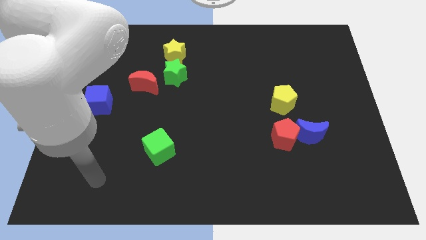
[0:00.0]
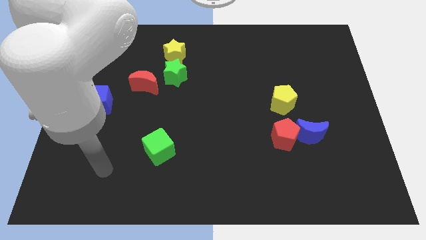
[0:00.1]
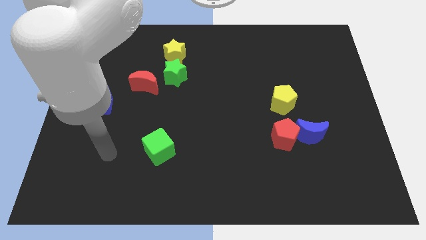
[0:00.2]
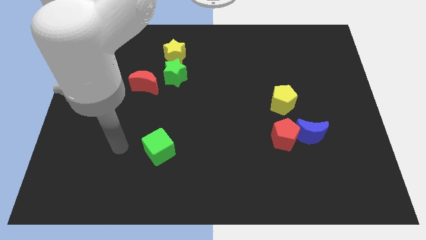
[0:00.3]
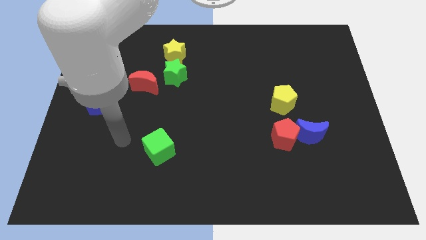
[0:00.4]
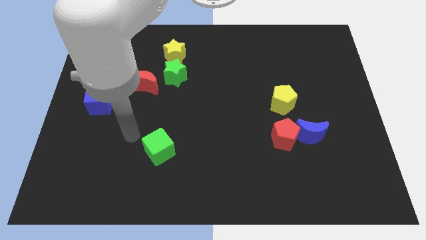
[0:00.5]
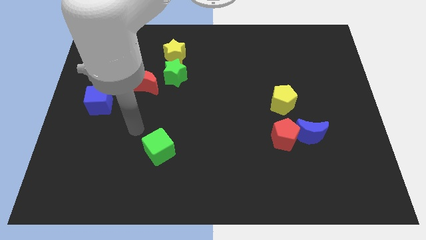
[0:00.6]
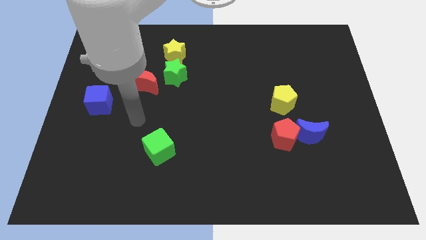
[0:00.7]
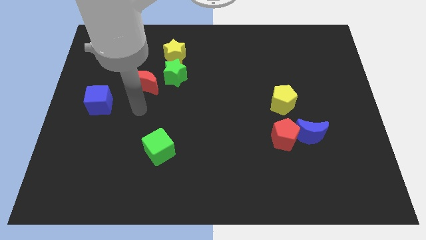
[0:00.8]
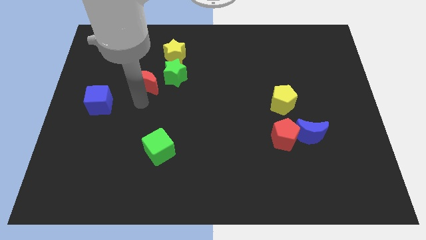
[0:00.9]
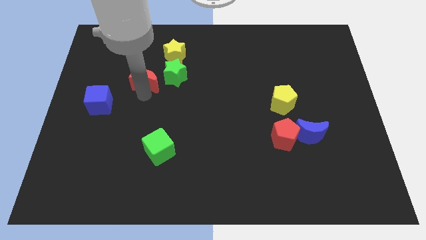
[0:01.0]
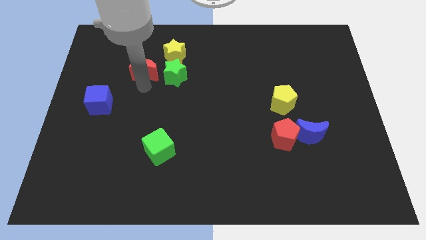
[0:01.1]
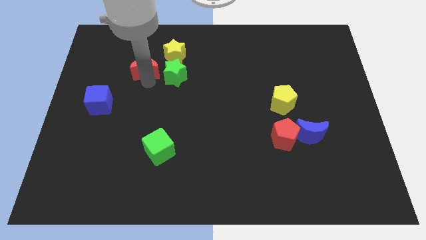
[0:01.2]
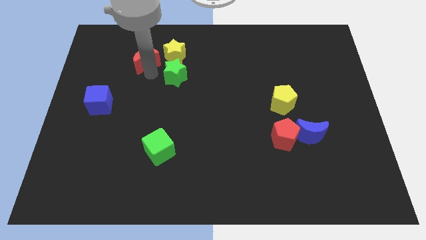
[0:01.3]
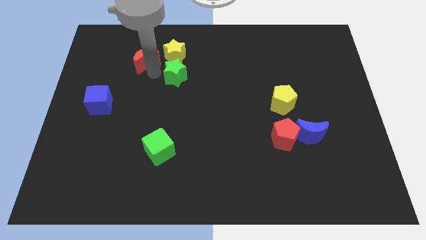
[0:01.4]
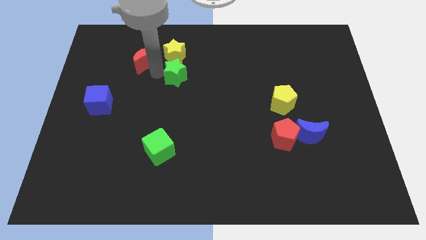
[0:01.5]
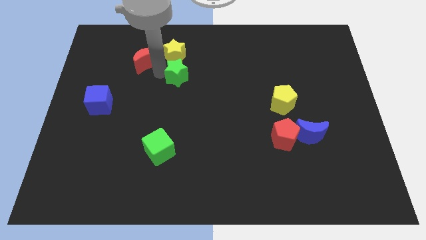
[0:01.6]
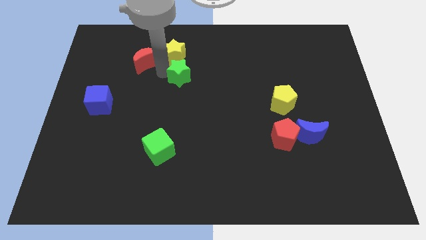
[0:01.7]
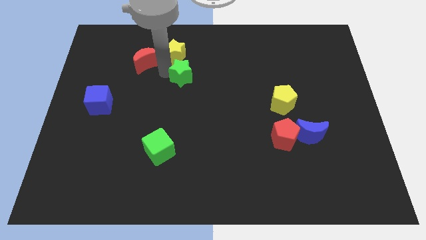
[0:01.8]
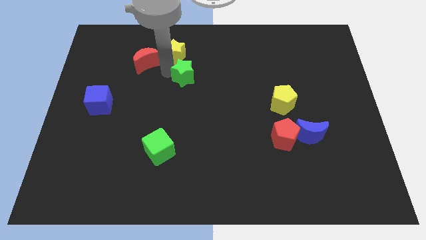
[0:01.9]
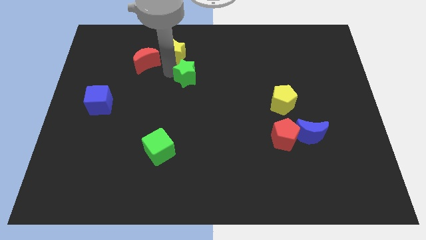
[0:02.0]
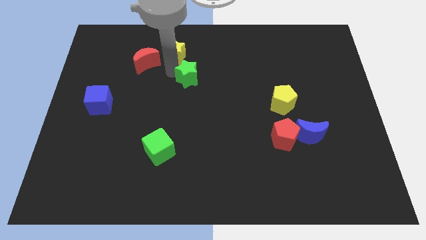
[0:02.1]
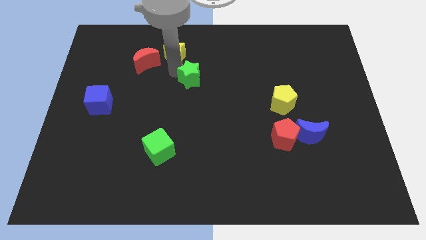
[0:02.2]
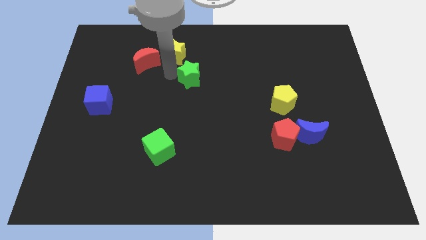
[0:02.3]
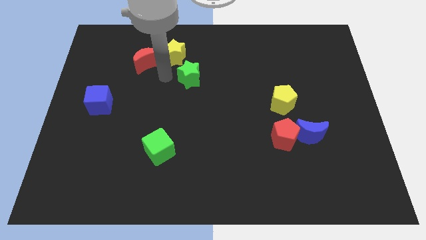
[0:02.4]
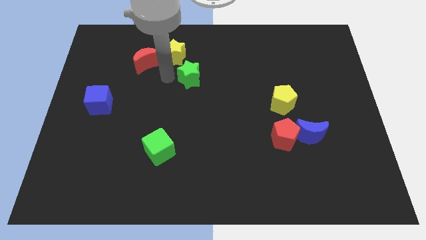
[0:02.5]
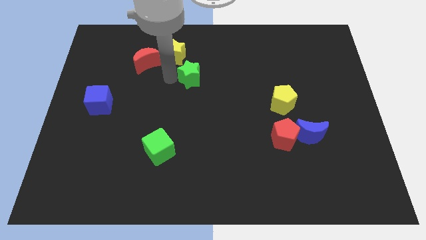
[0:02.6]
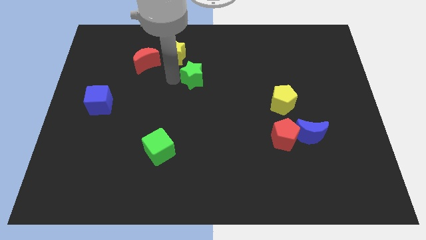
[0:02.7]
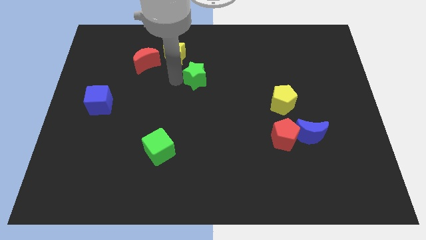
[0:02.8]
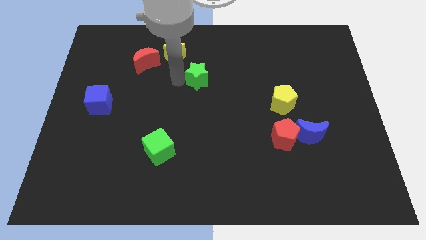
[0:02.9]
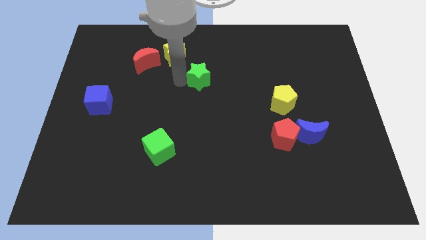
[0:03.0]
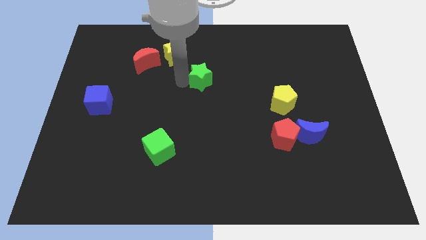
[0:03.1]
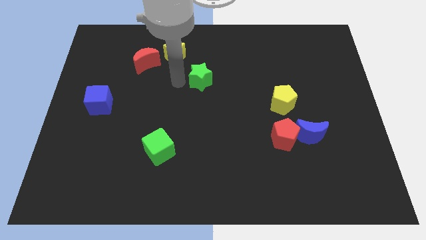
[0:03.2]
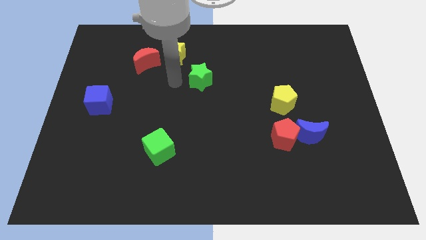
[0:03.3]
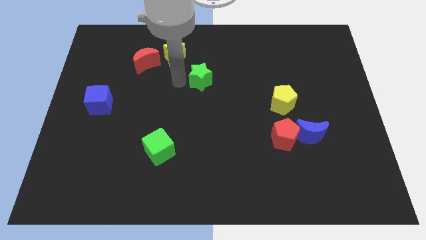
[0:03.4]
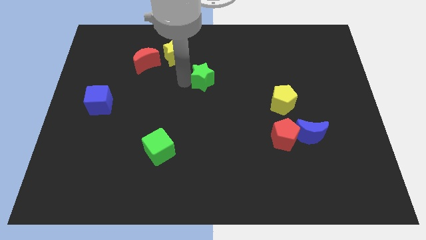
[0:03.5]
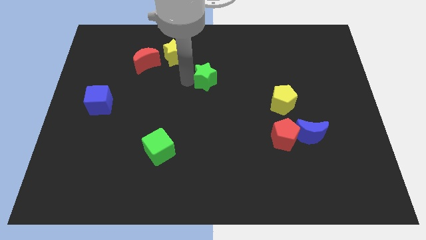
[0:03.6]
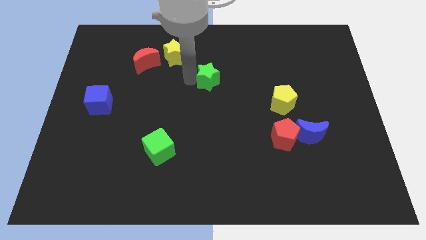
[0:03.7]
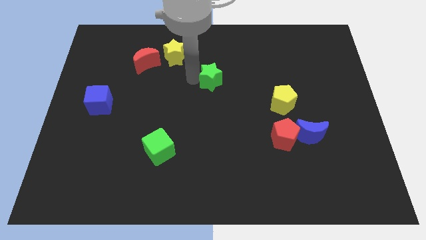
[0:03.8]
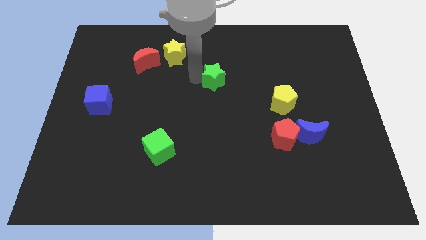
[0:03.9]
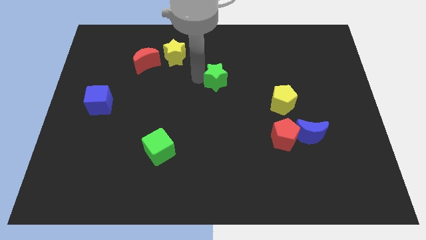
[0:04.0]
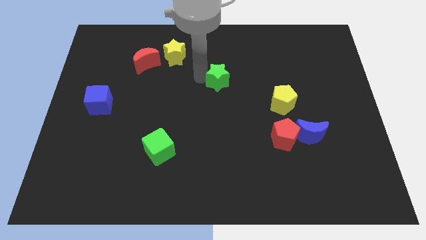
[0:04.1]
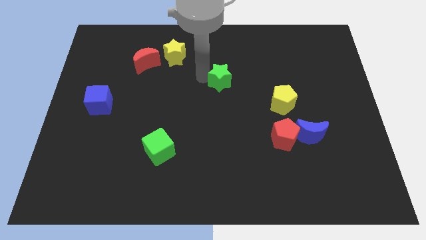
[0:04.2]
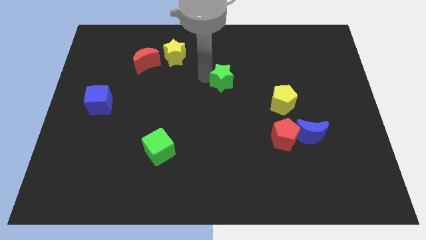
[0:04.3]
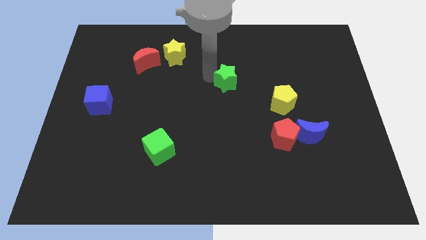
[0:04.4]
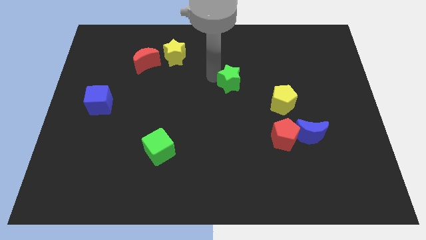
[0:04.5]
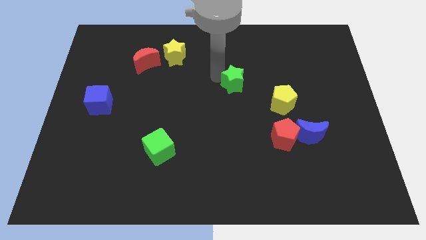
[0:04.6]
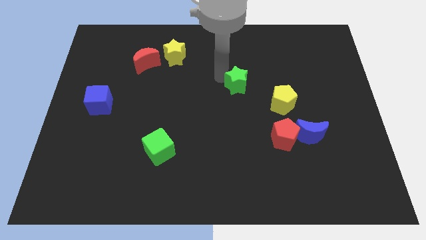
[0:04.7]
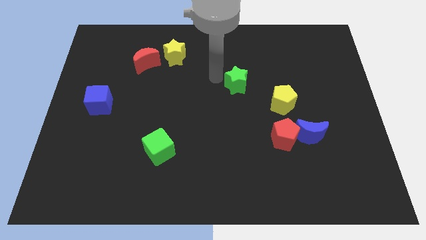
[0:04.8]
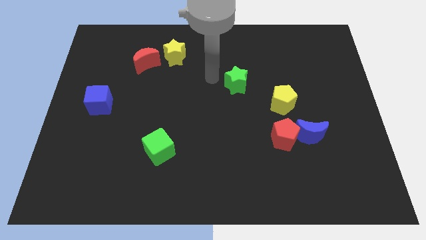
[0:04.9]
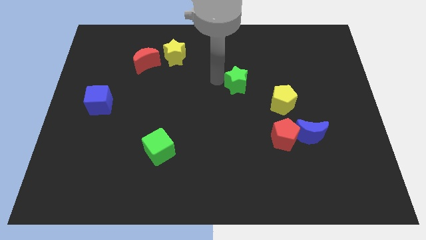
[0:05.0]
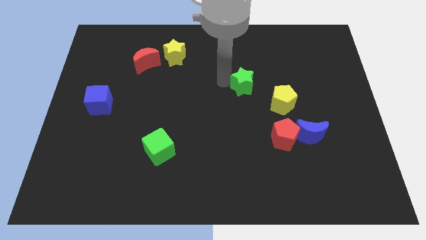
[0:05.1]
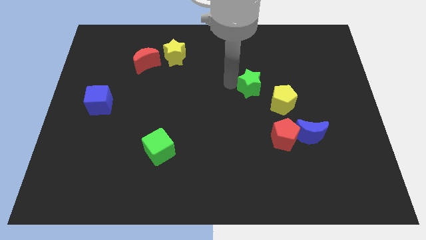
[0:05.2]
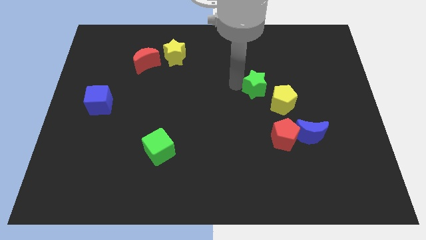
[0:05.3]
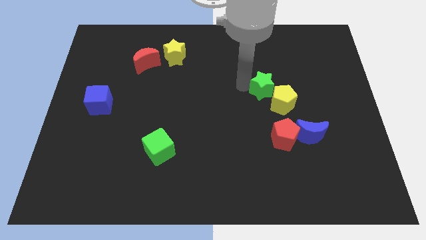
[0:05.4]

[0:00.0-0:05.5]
put the green star next to the yellow pentagon

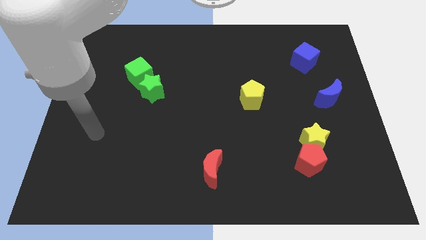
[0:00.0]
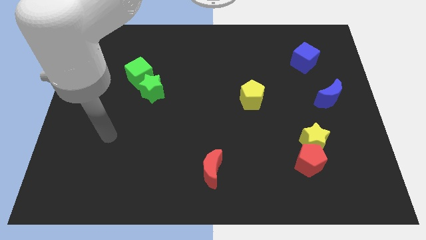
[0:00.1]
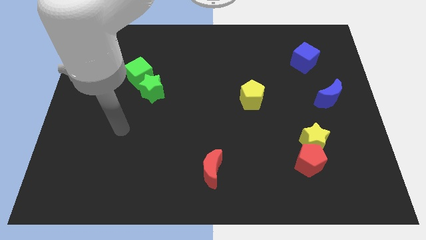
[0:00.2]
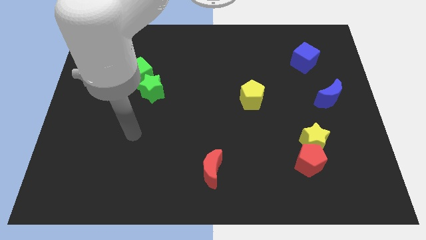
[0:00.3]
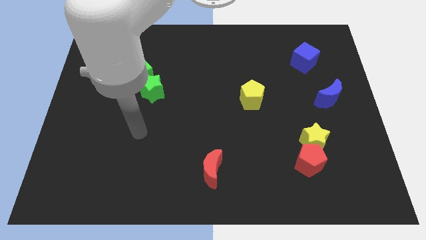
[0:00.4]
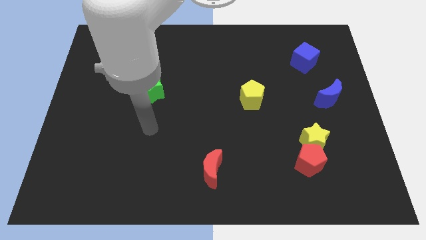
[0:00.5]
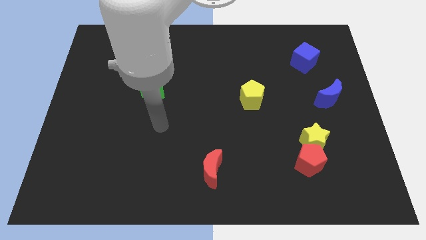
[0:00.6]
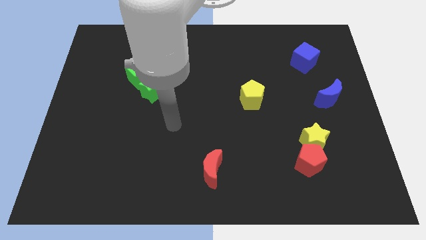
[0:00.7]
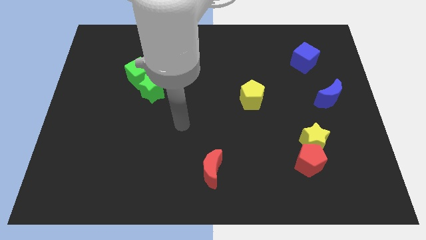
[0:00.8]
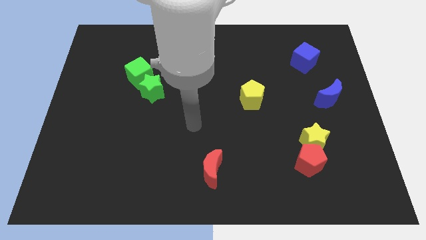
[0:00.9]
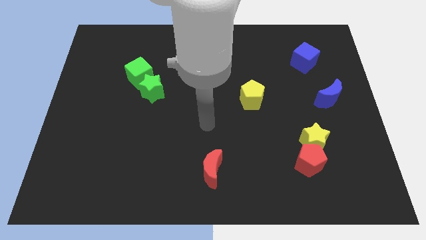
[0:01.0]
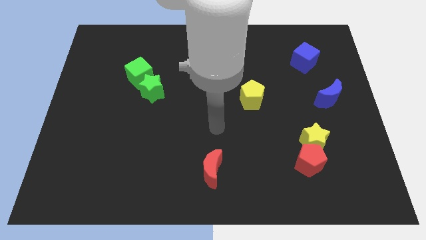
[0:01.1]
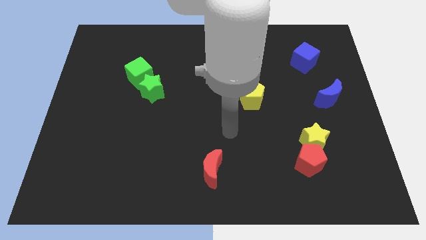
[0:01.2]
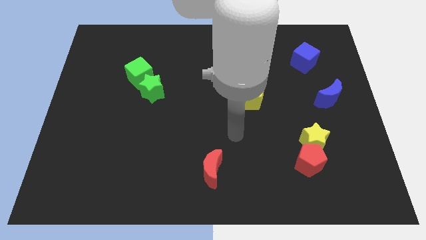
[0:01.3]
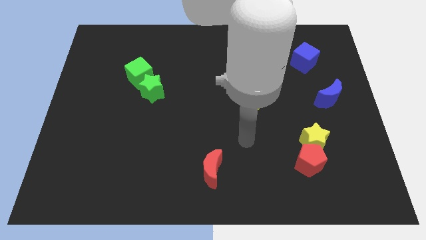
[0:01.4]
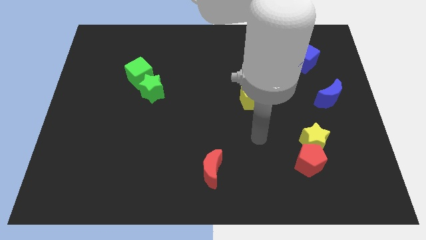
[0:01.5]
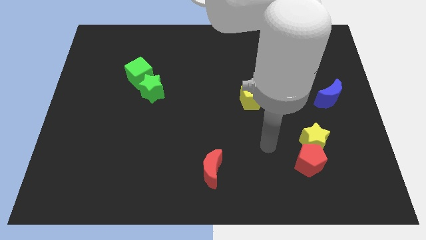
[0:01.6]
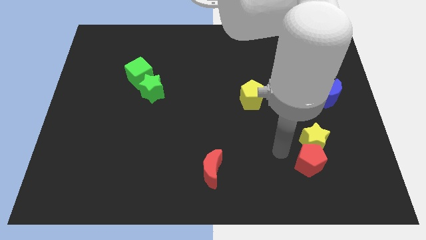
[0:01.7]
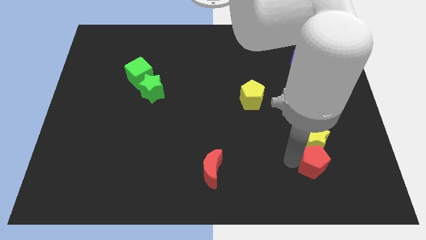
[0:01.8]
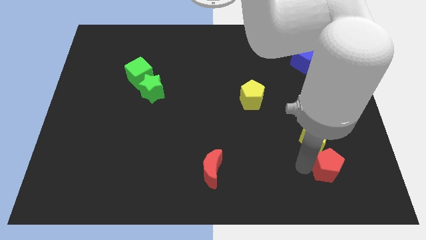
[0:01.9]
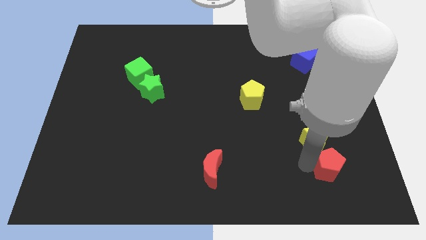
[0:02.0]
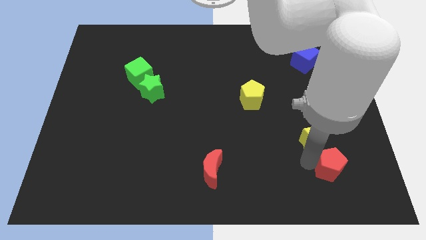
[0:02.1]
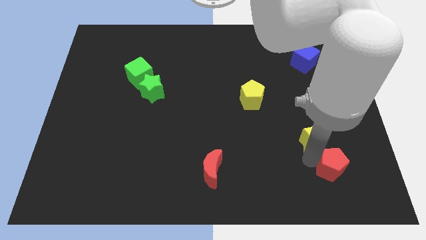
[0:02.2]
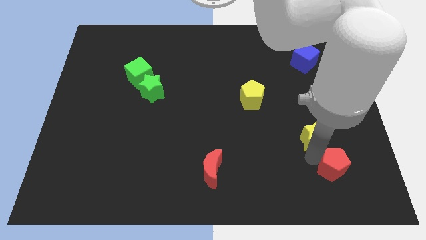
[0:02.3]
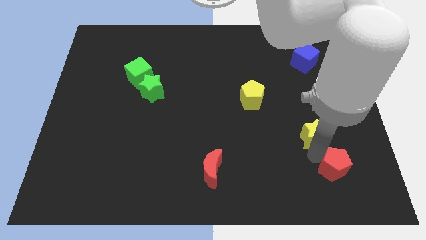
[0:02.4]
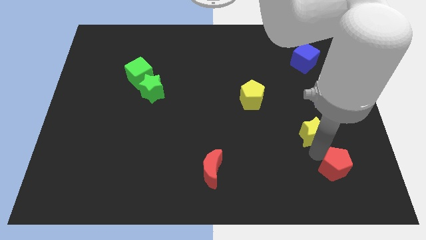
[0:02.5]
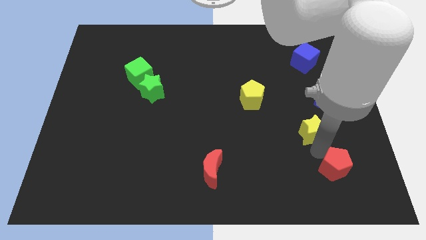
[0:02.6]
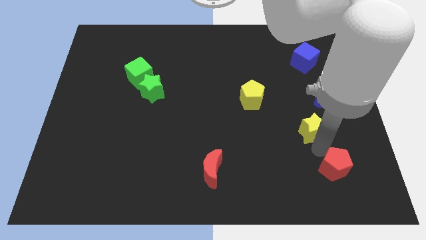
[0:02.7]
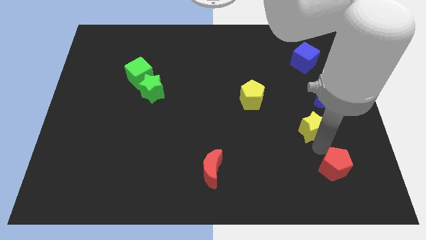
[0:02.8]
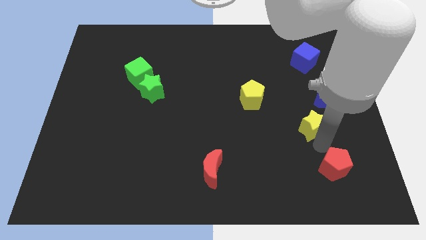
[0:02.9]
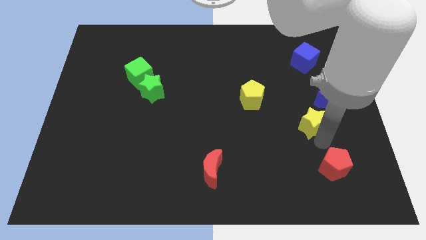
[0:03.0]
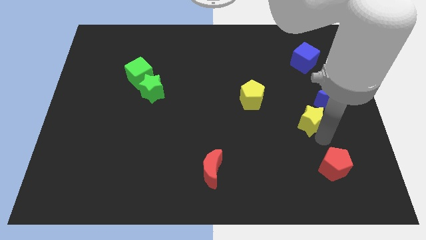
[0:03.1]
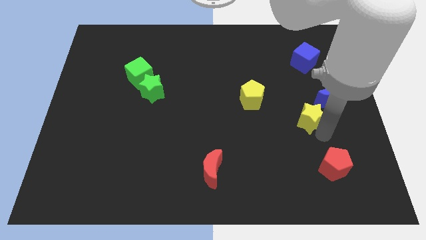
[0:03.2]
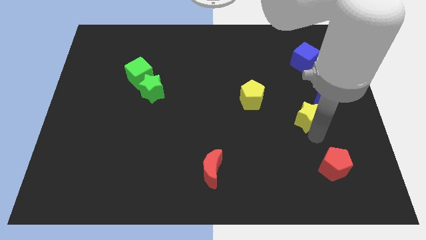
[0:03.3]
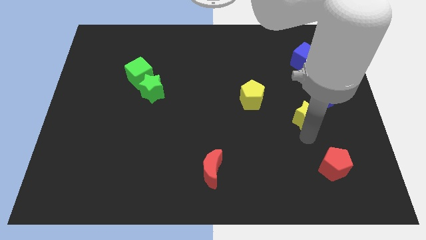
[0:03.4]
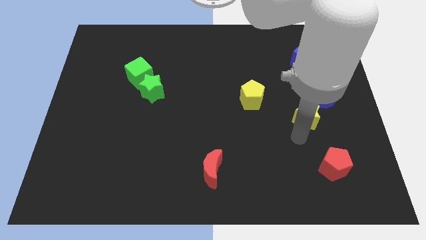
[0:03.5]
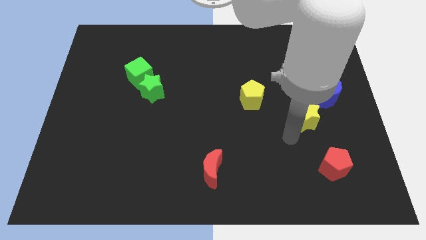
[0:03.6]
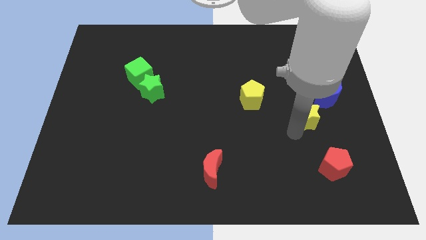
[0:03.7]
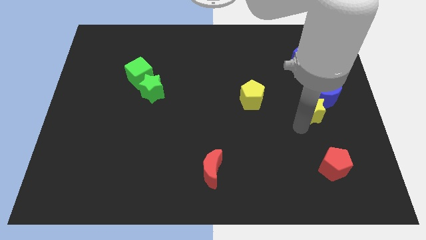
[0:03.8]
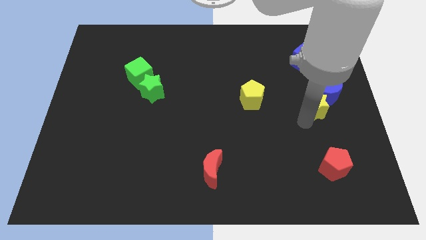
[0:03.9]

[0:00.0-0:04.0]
put the yellow star towards the blue moon
